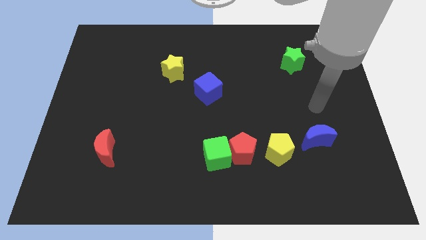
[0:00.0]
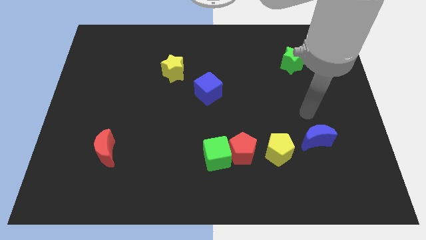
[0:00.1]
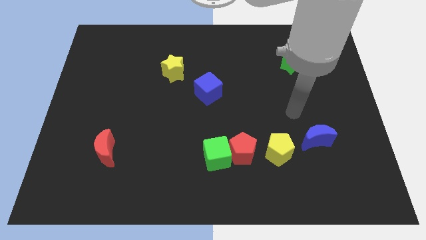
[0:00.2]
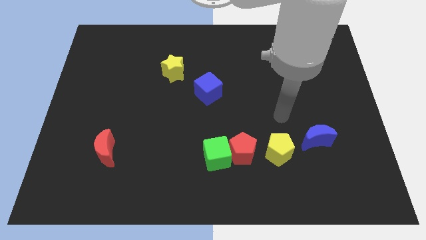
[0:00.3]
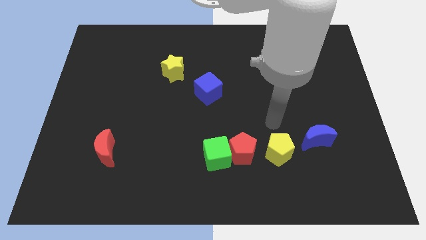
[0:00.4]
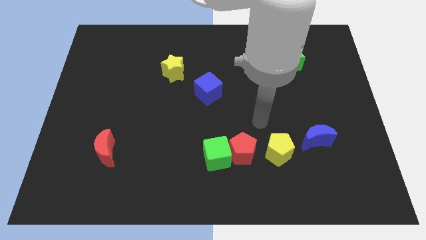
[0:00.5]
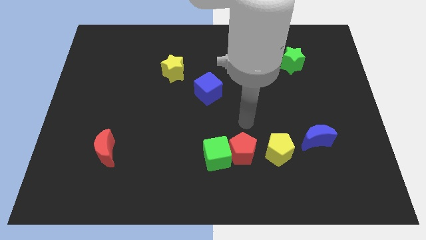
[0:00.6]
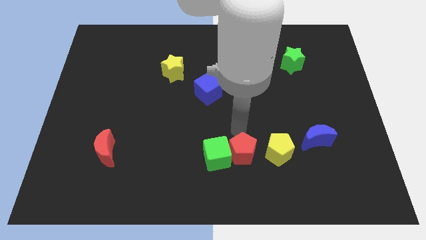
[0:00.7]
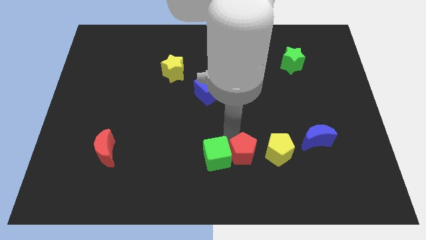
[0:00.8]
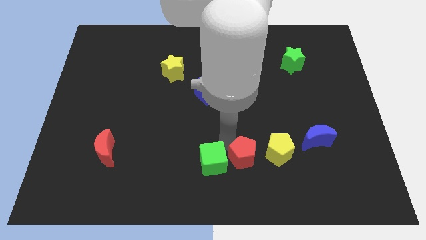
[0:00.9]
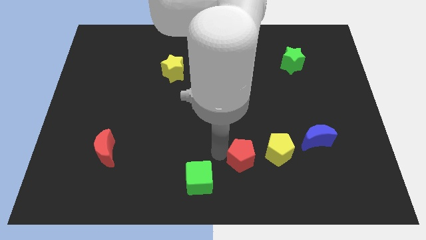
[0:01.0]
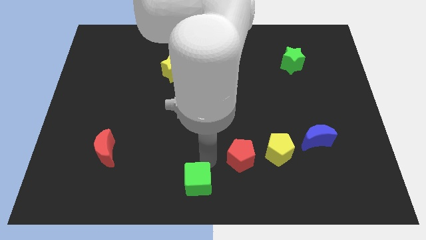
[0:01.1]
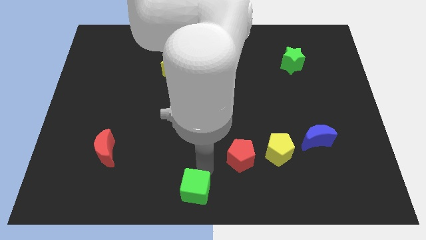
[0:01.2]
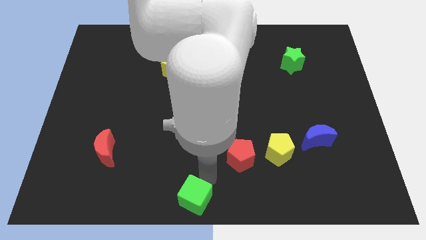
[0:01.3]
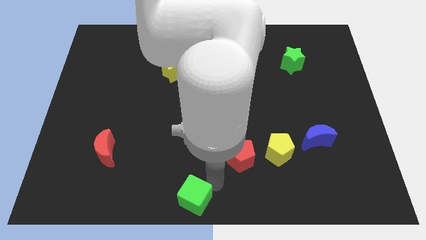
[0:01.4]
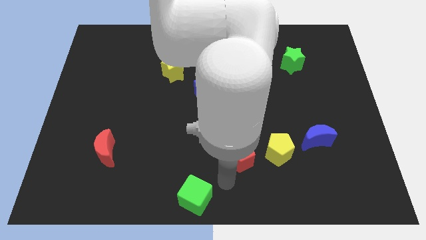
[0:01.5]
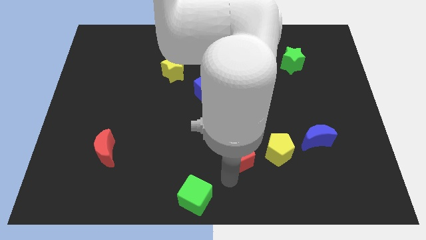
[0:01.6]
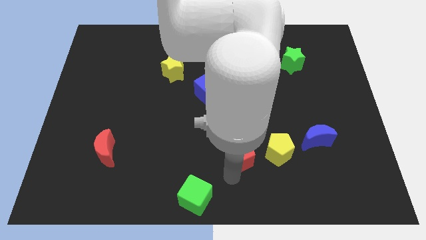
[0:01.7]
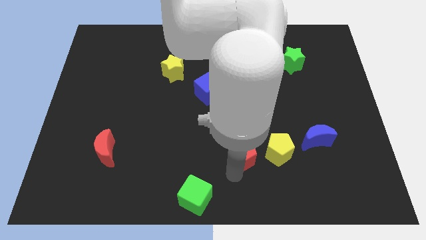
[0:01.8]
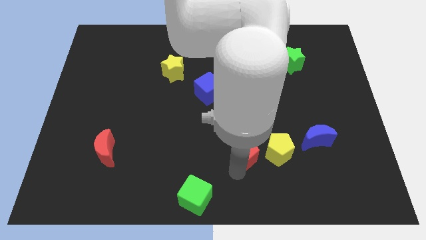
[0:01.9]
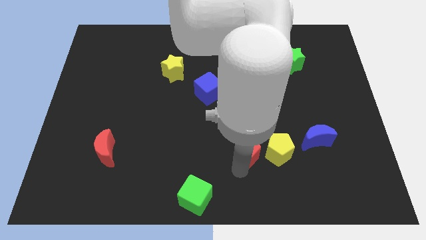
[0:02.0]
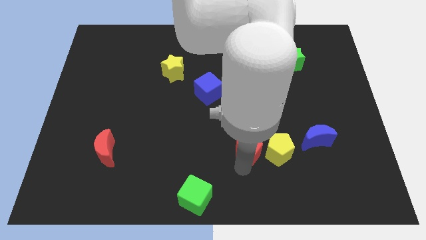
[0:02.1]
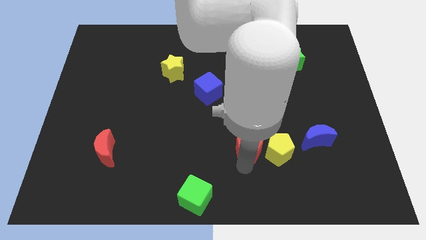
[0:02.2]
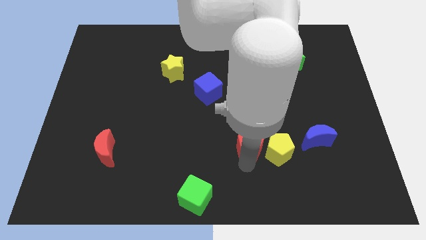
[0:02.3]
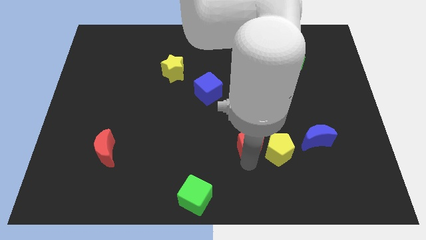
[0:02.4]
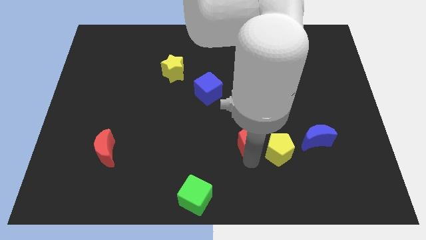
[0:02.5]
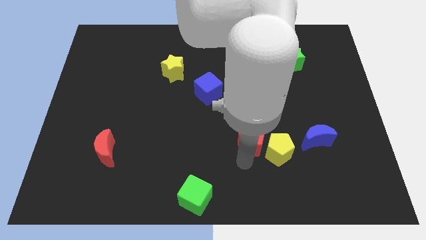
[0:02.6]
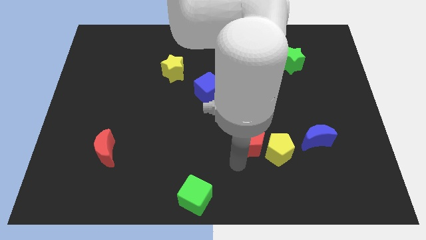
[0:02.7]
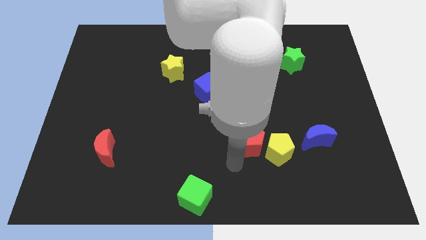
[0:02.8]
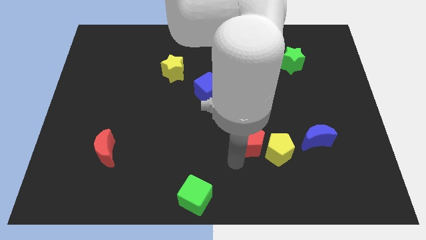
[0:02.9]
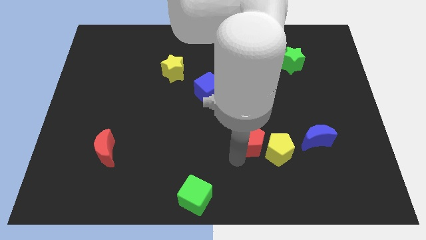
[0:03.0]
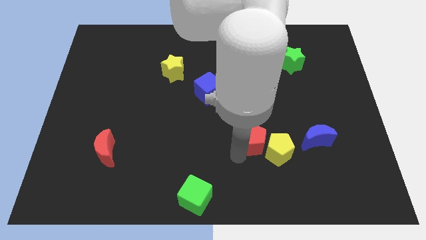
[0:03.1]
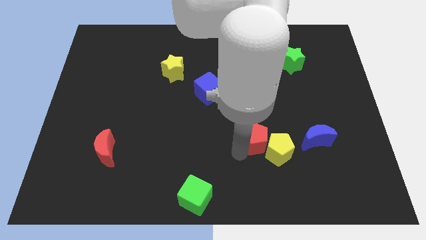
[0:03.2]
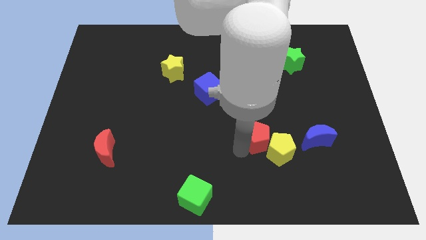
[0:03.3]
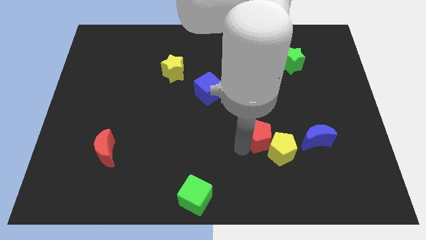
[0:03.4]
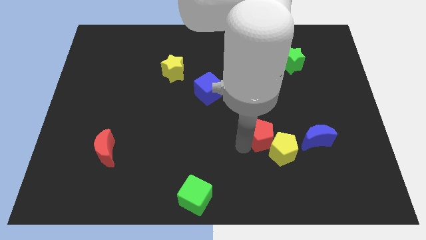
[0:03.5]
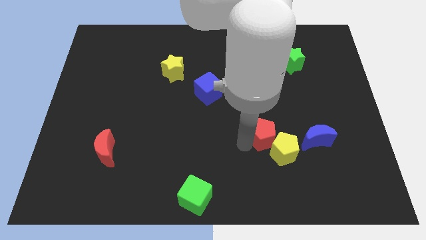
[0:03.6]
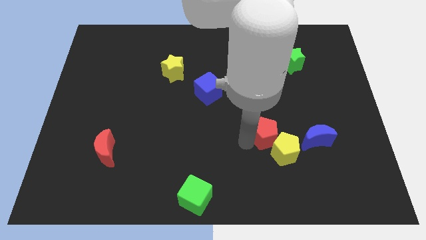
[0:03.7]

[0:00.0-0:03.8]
push the red pentagon upwards and then right somewhat

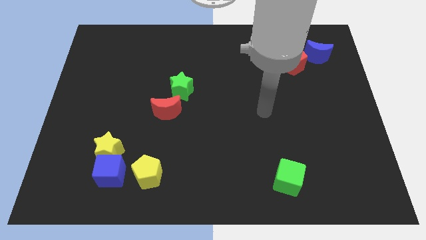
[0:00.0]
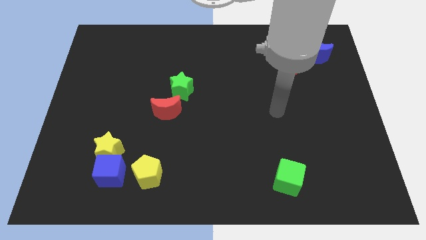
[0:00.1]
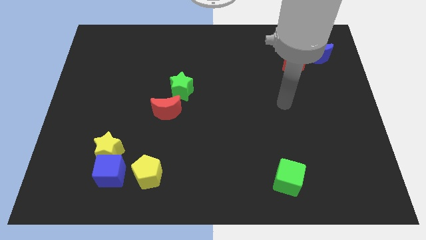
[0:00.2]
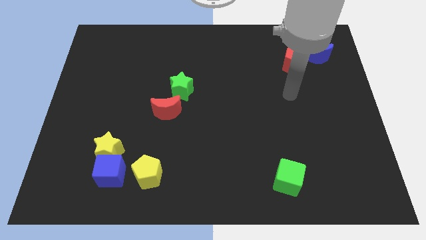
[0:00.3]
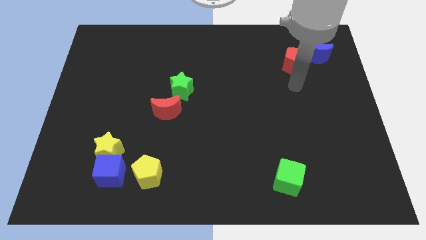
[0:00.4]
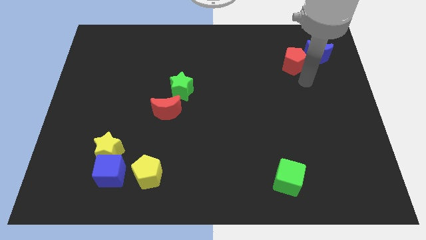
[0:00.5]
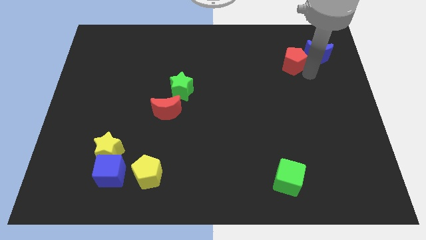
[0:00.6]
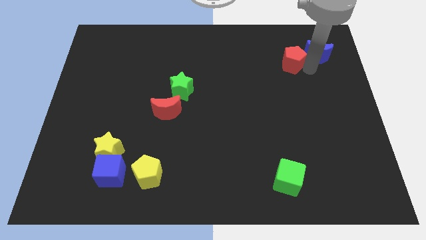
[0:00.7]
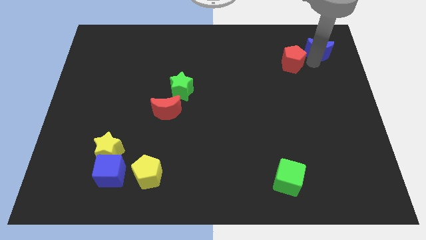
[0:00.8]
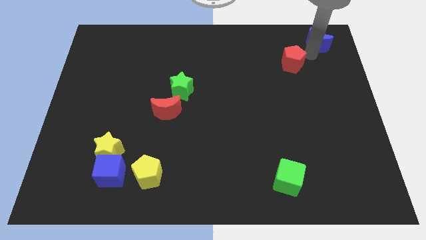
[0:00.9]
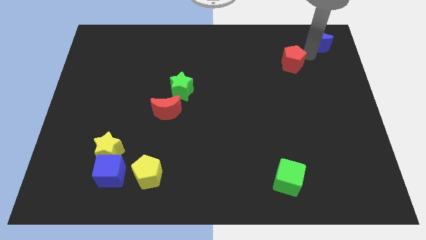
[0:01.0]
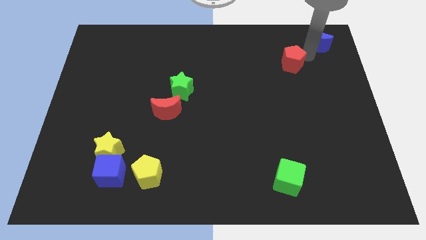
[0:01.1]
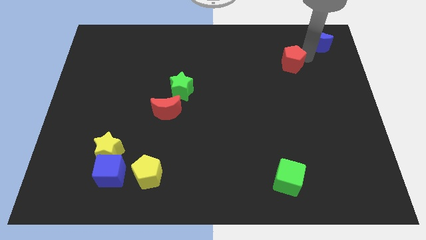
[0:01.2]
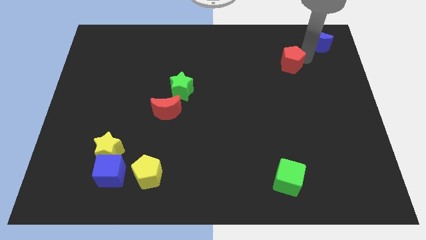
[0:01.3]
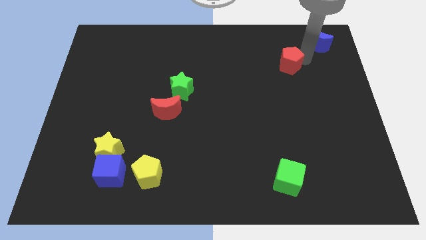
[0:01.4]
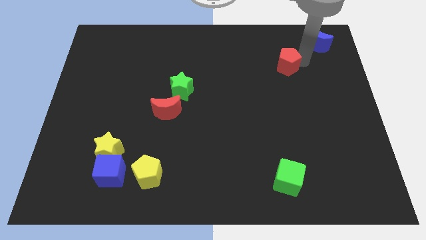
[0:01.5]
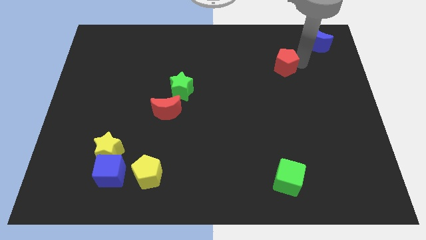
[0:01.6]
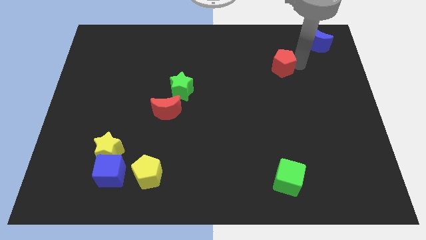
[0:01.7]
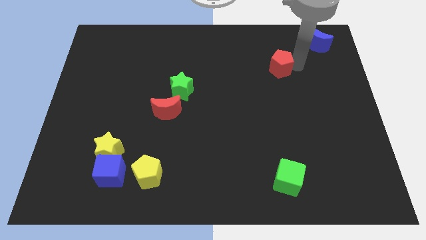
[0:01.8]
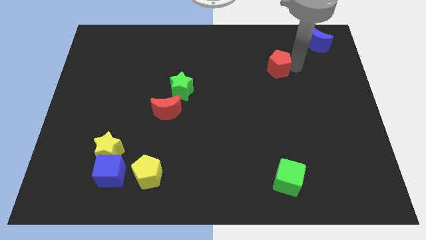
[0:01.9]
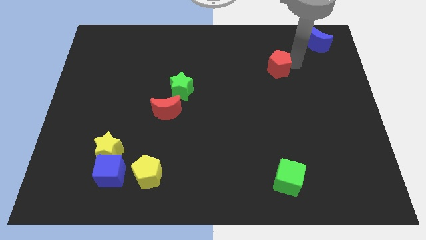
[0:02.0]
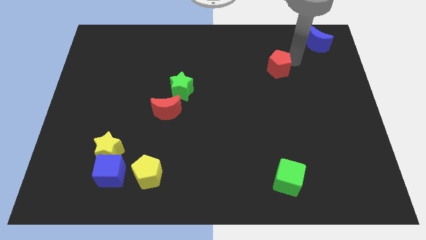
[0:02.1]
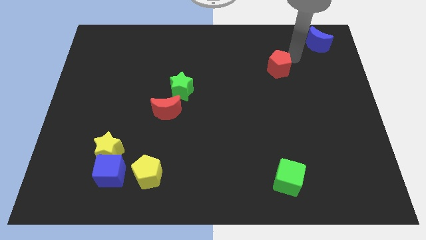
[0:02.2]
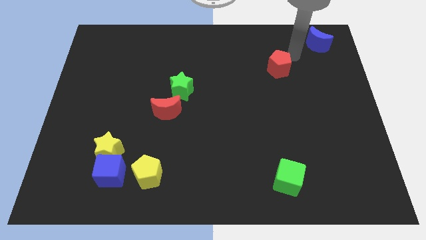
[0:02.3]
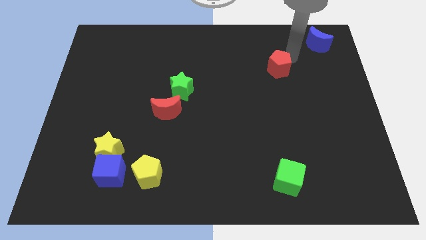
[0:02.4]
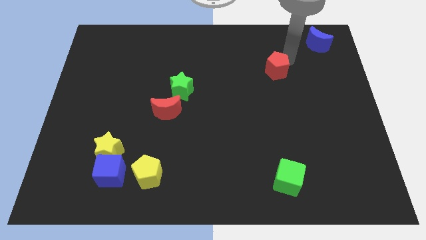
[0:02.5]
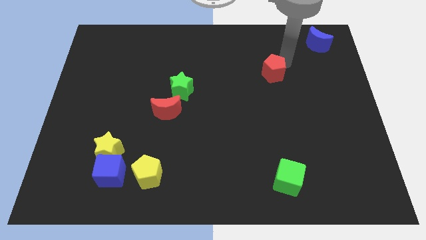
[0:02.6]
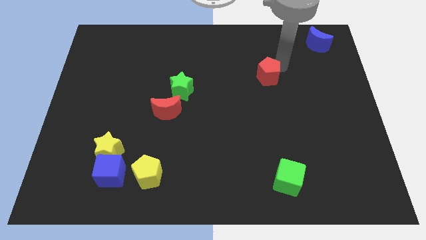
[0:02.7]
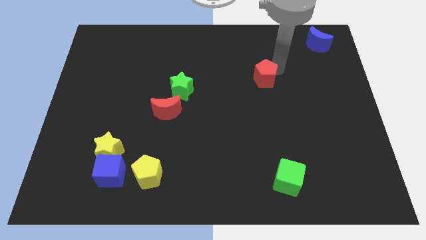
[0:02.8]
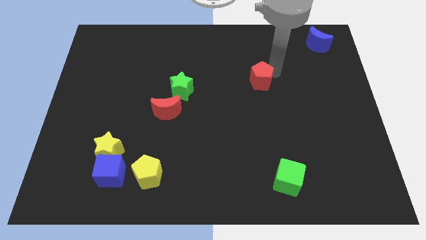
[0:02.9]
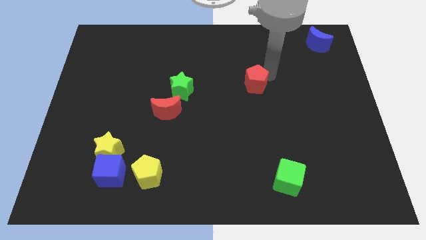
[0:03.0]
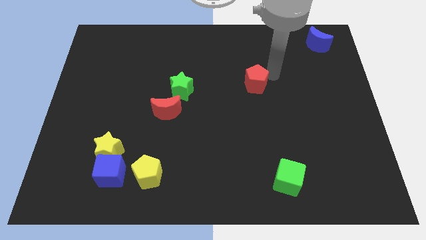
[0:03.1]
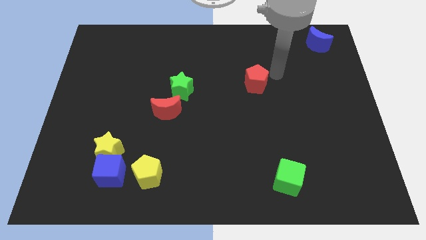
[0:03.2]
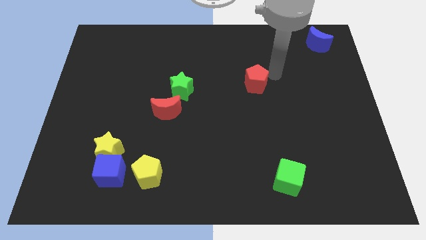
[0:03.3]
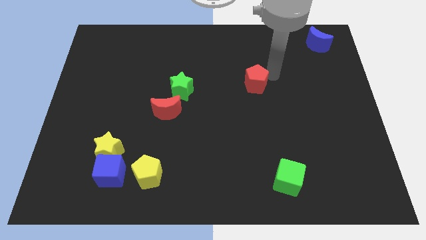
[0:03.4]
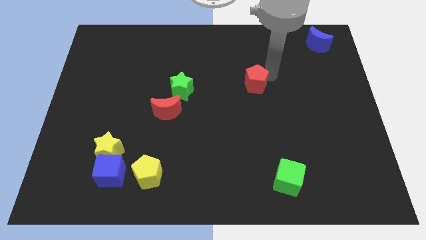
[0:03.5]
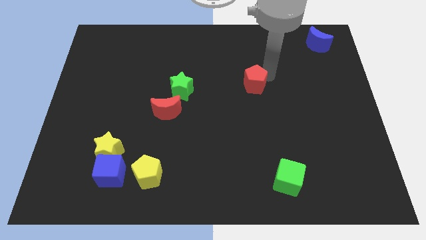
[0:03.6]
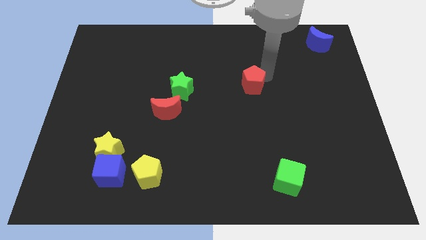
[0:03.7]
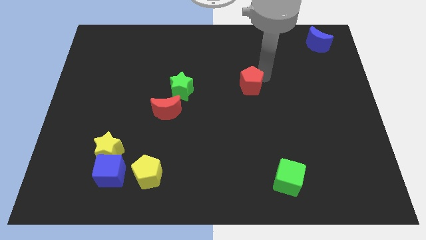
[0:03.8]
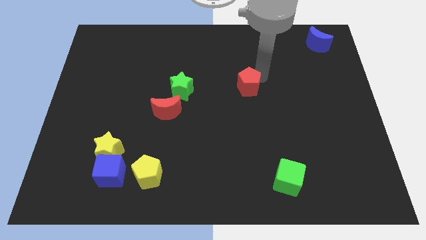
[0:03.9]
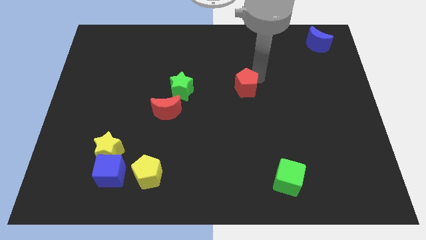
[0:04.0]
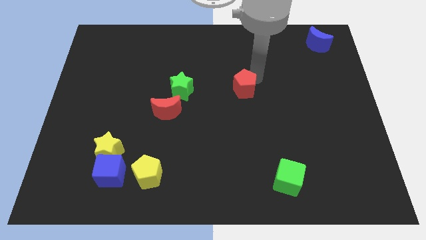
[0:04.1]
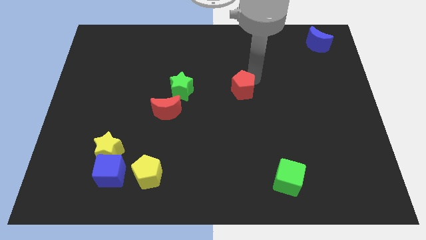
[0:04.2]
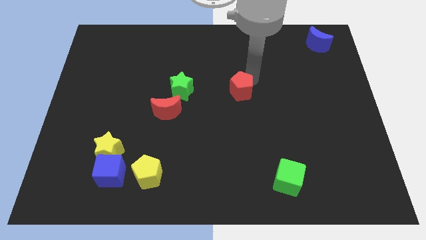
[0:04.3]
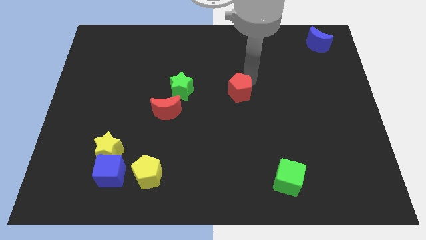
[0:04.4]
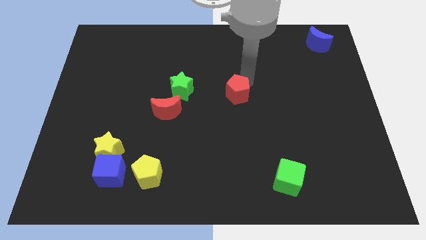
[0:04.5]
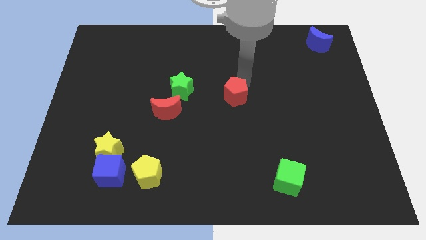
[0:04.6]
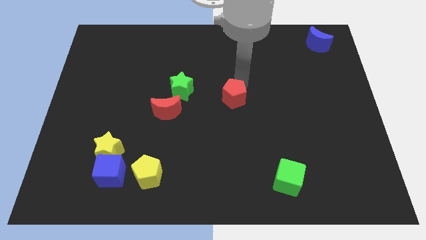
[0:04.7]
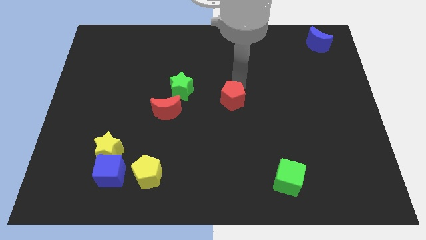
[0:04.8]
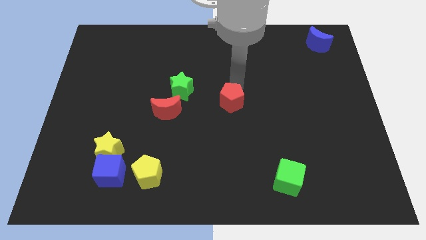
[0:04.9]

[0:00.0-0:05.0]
push the red pentagon down and to the left
